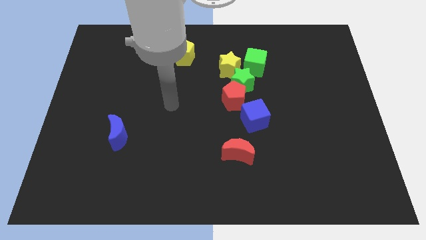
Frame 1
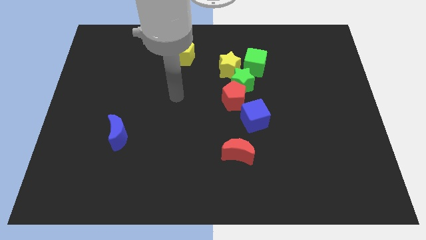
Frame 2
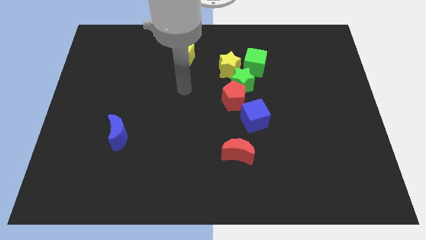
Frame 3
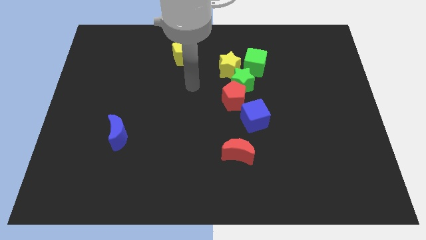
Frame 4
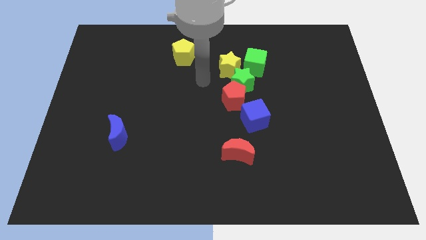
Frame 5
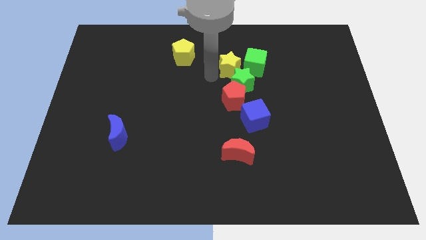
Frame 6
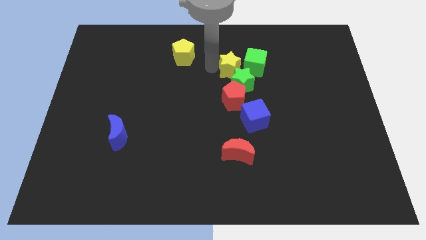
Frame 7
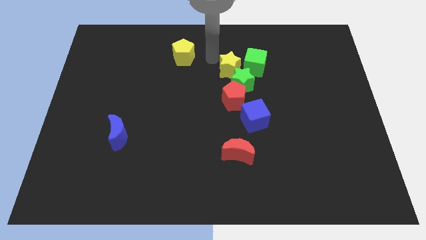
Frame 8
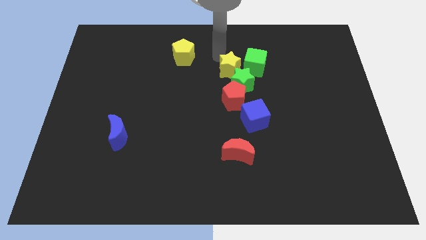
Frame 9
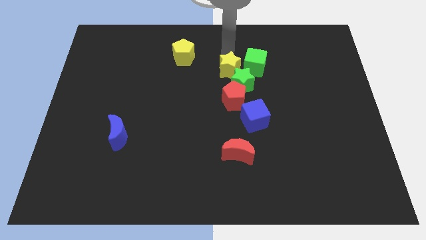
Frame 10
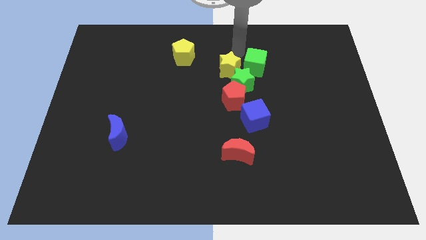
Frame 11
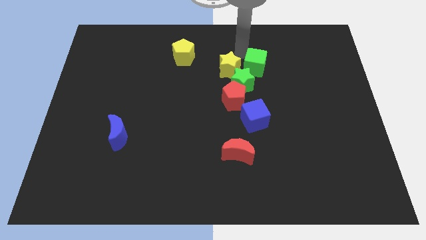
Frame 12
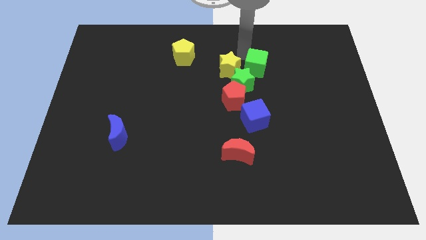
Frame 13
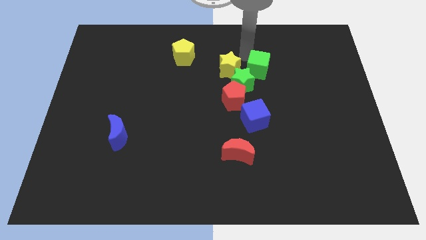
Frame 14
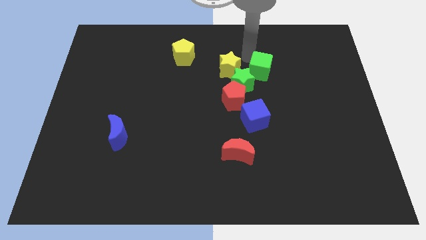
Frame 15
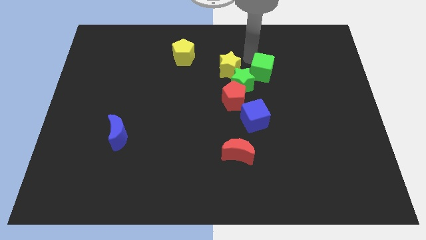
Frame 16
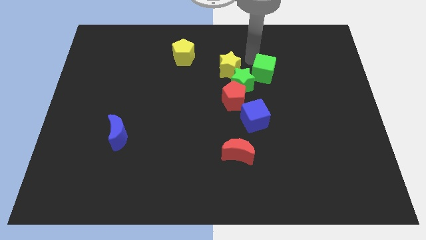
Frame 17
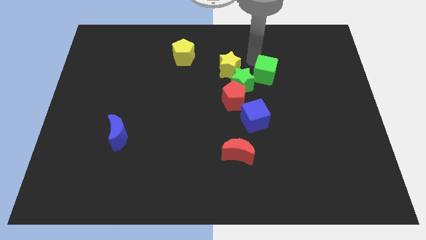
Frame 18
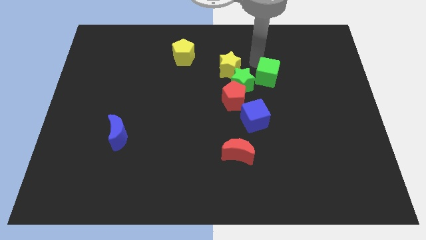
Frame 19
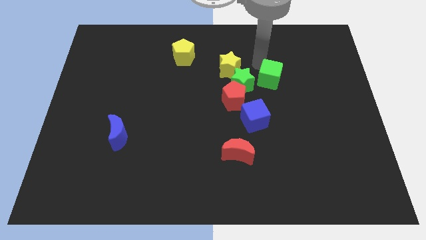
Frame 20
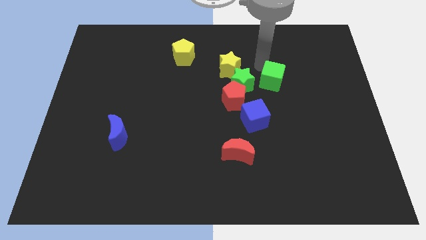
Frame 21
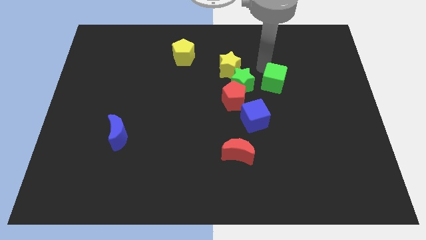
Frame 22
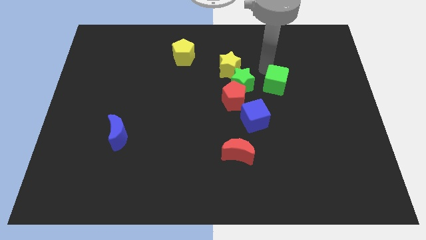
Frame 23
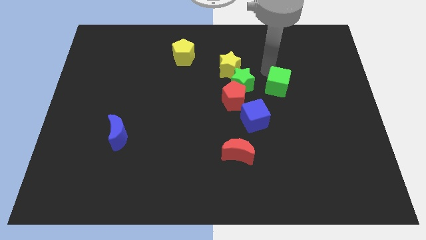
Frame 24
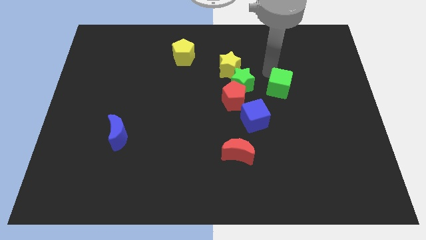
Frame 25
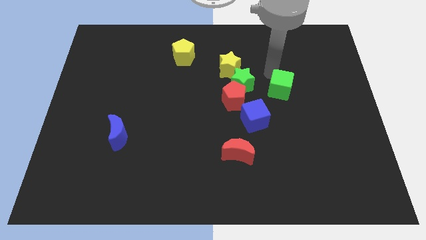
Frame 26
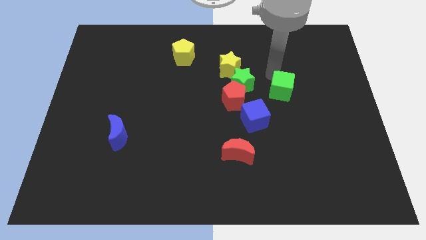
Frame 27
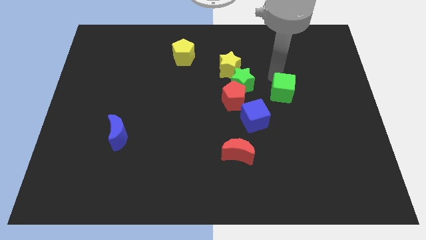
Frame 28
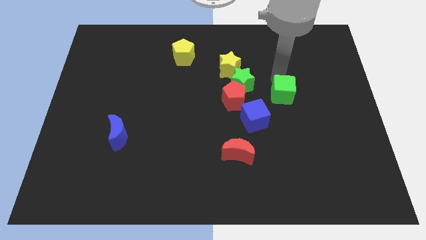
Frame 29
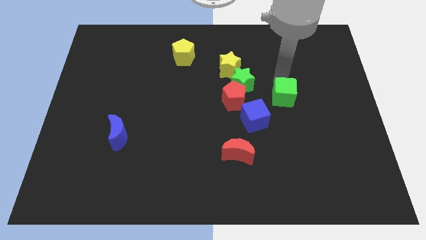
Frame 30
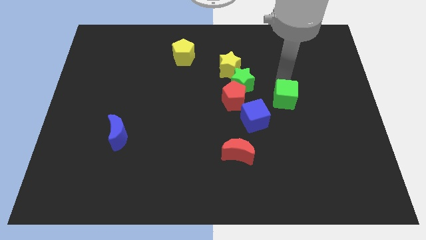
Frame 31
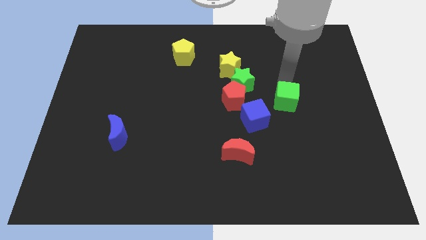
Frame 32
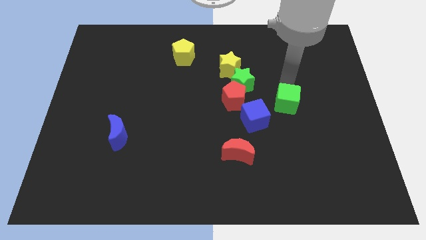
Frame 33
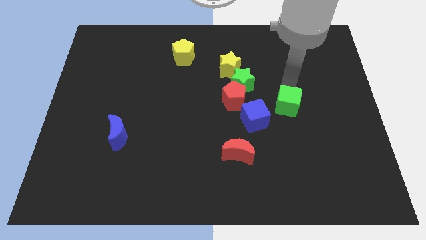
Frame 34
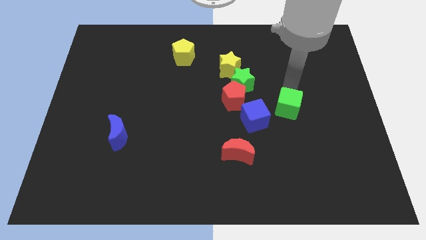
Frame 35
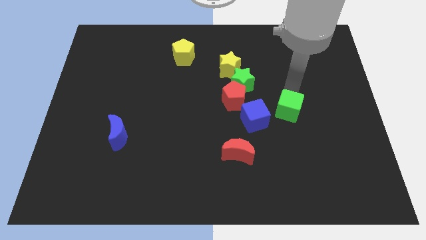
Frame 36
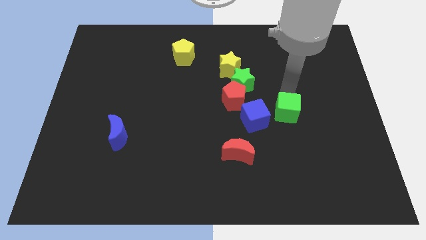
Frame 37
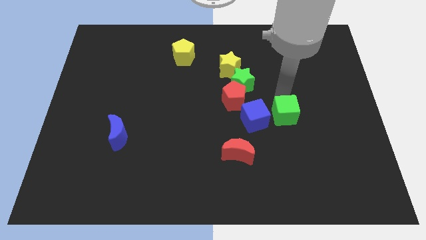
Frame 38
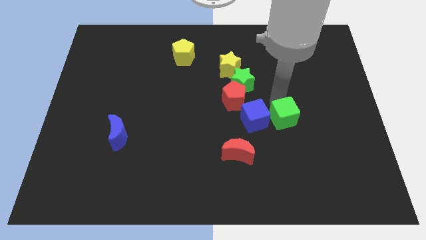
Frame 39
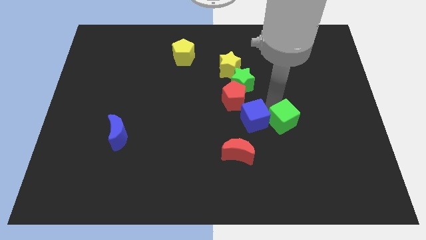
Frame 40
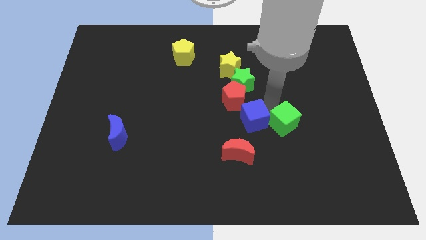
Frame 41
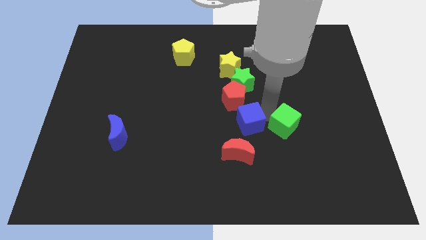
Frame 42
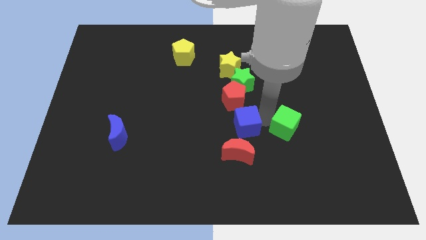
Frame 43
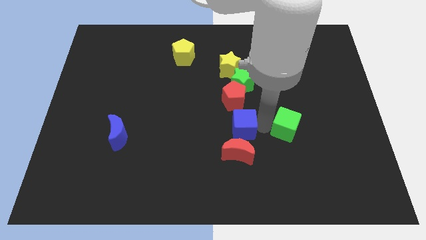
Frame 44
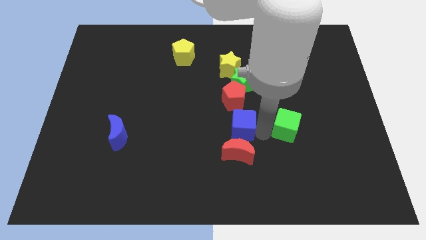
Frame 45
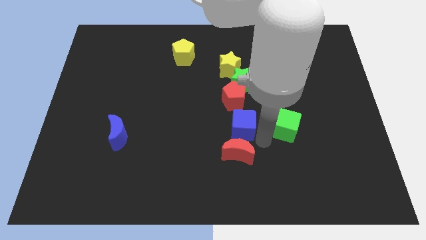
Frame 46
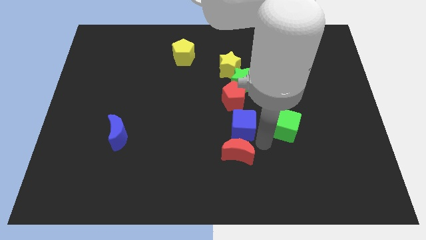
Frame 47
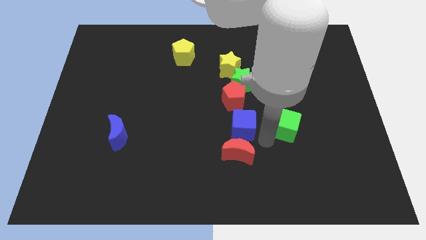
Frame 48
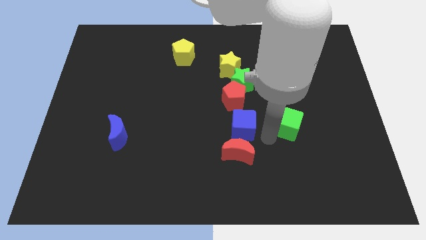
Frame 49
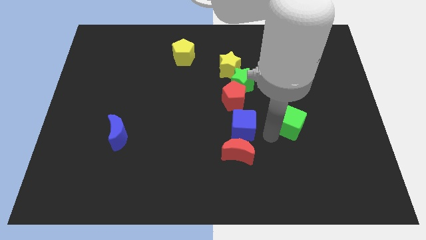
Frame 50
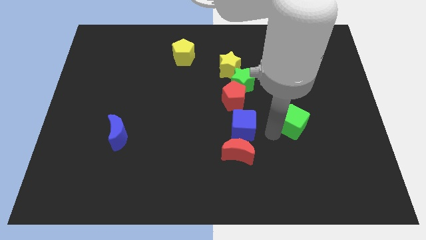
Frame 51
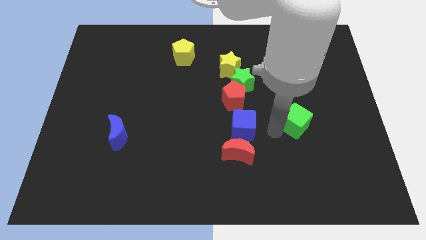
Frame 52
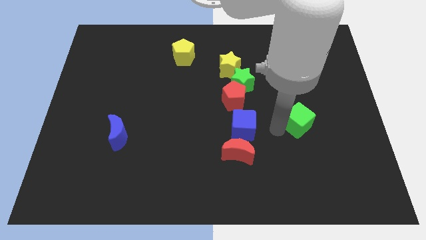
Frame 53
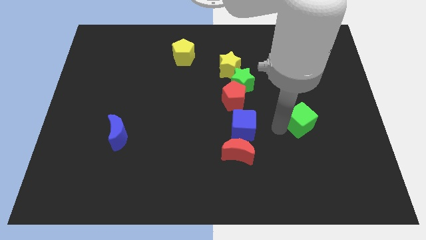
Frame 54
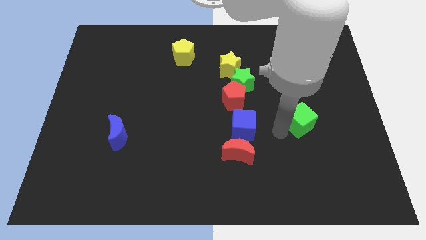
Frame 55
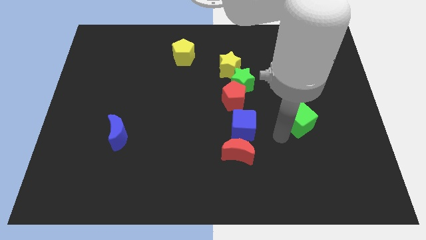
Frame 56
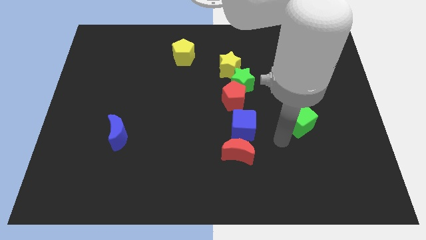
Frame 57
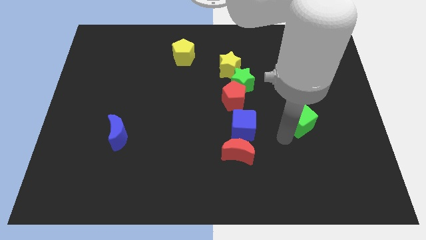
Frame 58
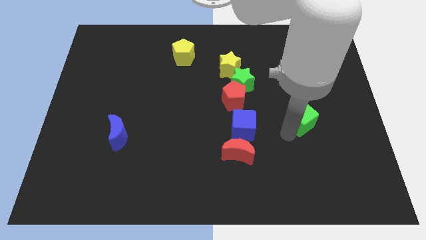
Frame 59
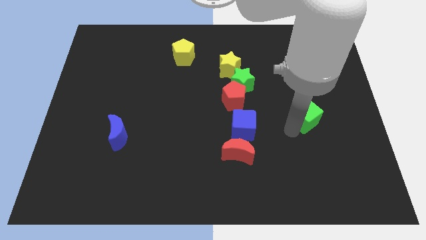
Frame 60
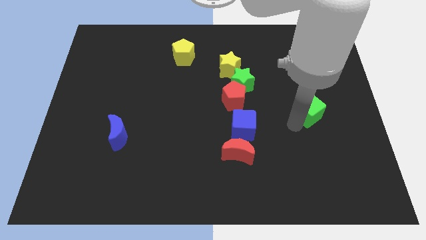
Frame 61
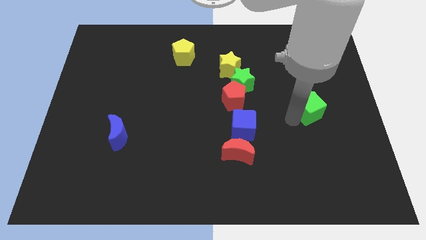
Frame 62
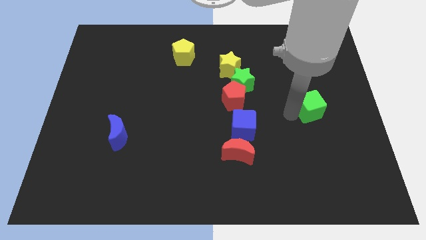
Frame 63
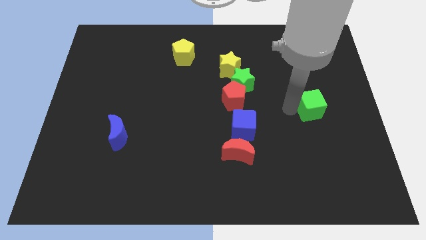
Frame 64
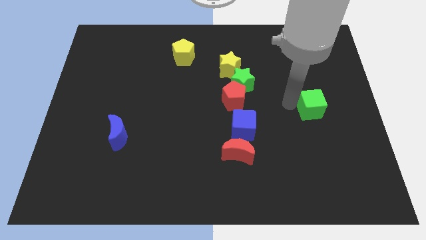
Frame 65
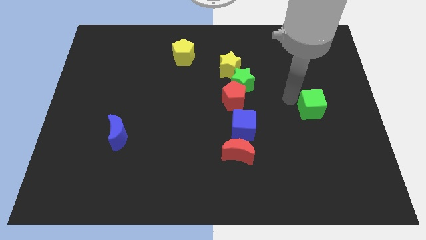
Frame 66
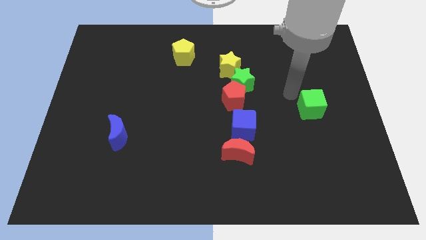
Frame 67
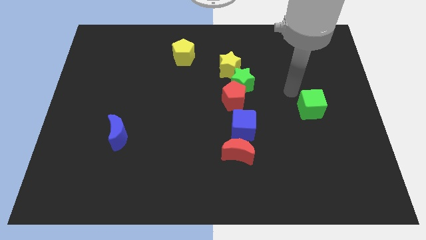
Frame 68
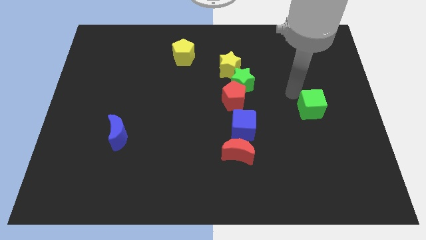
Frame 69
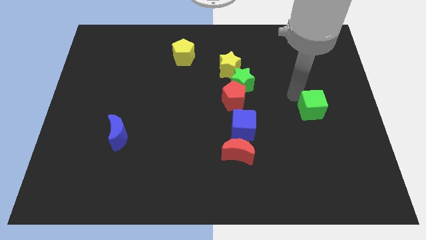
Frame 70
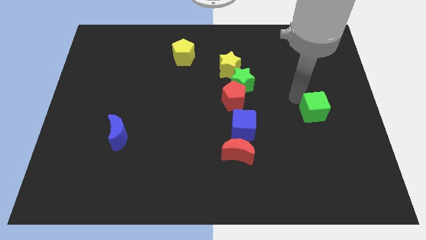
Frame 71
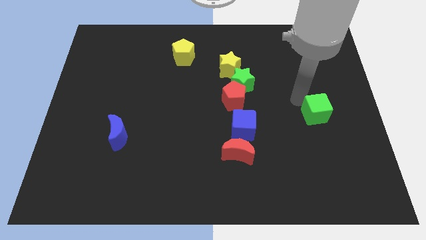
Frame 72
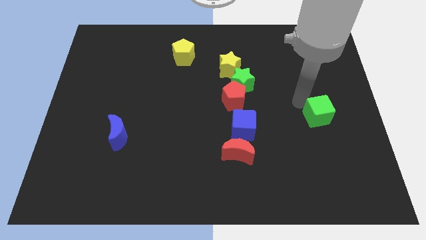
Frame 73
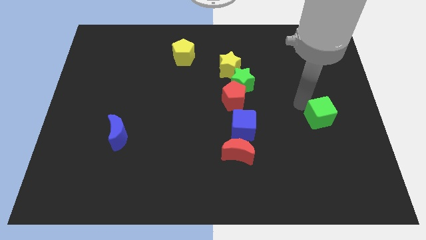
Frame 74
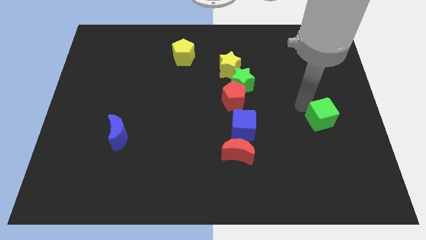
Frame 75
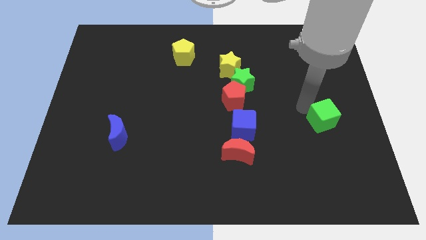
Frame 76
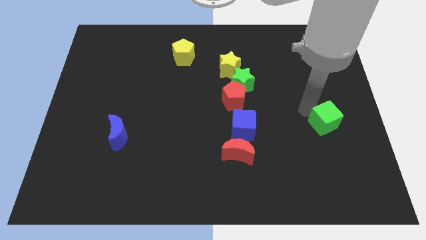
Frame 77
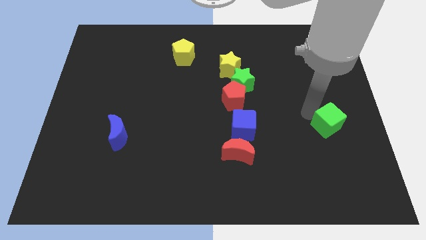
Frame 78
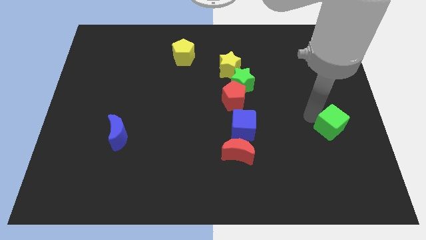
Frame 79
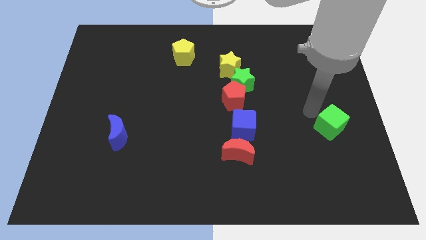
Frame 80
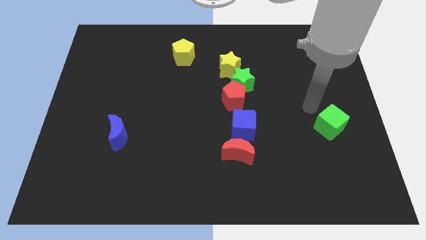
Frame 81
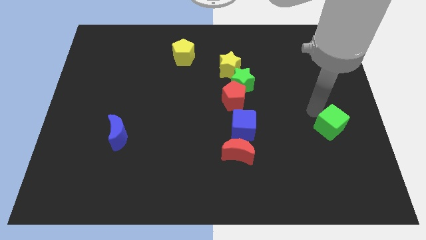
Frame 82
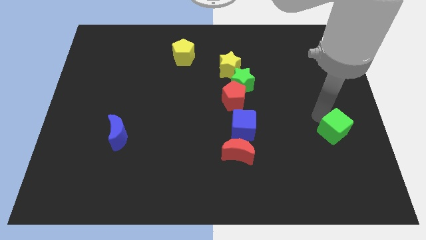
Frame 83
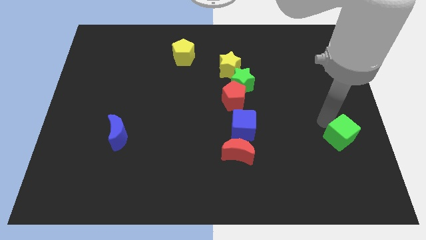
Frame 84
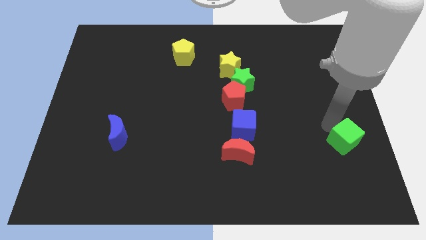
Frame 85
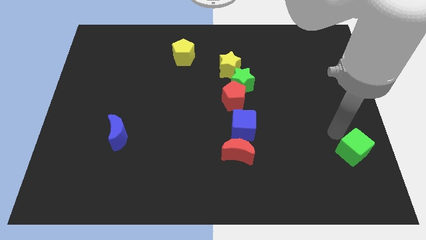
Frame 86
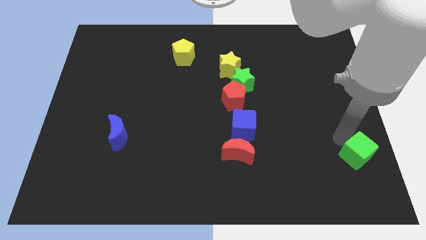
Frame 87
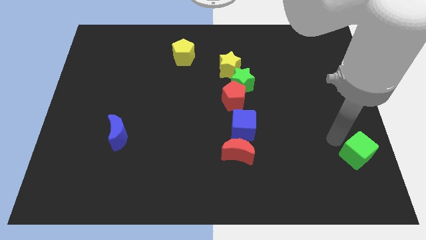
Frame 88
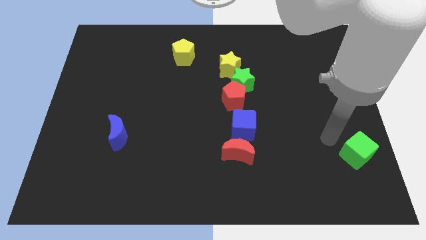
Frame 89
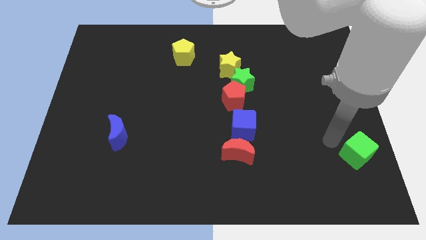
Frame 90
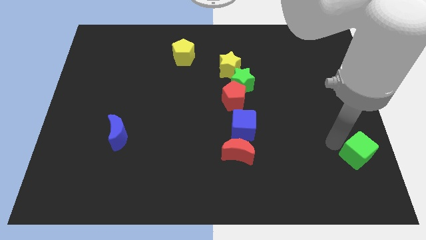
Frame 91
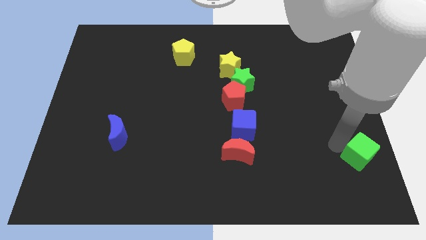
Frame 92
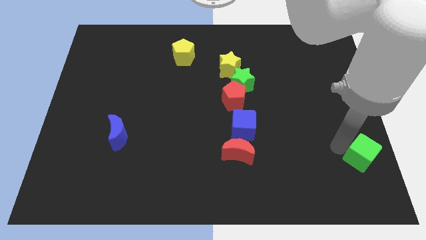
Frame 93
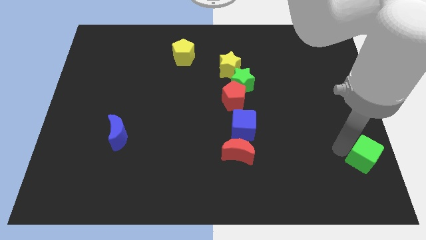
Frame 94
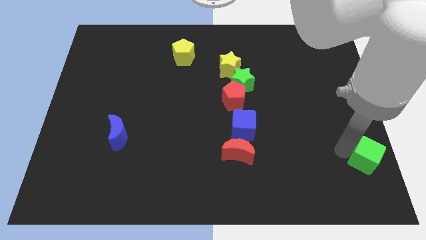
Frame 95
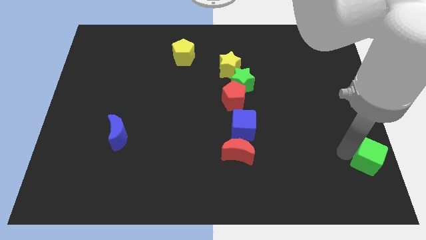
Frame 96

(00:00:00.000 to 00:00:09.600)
slide the green cube to the bottom right corner
